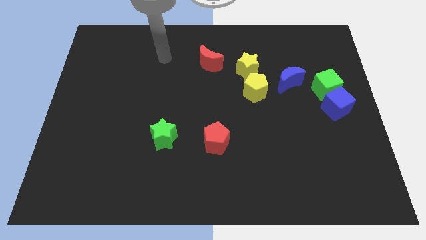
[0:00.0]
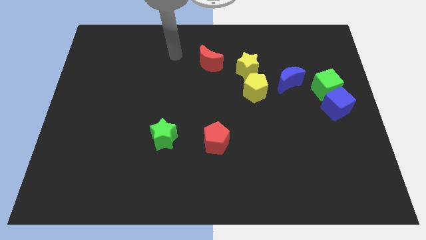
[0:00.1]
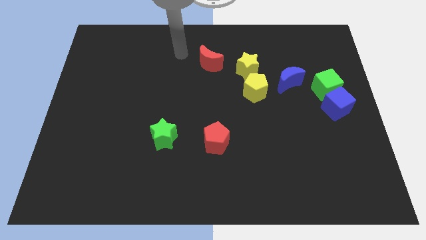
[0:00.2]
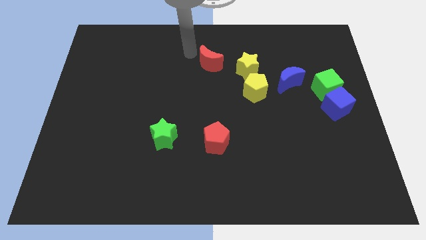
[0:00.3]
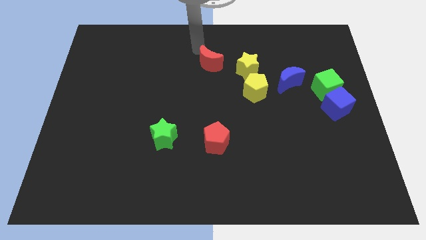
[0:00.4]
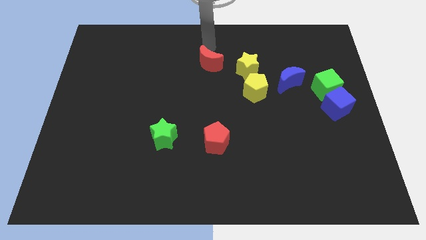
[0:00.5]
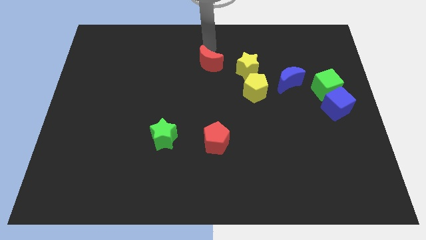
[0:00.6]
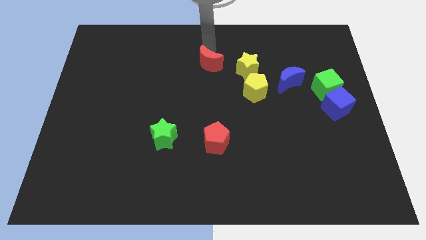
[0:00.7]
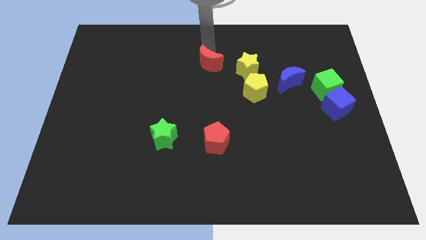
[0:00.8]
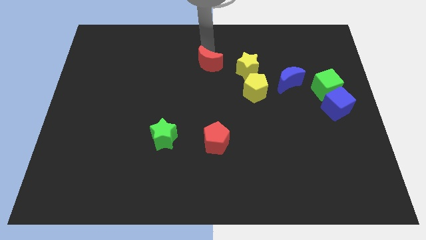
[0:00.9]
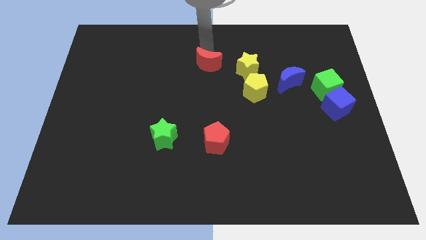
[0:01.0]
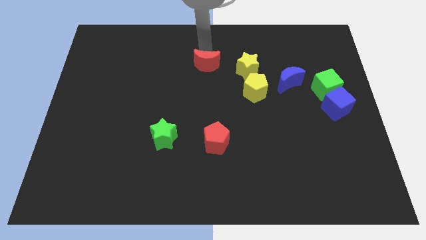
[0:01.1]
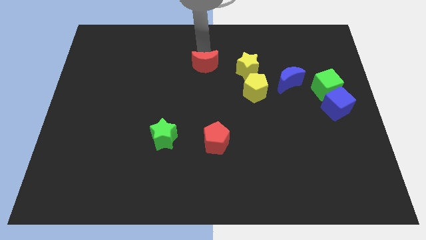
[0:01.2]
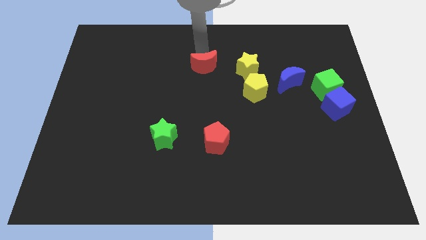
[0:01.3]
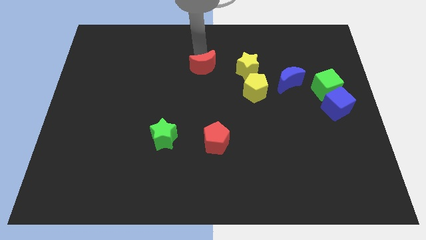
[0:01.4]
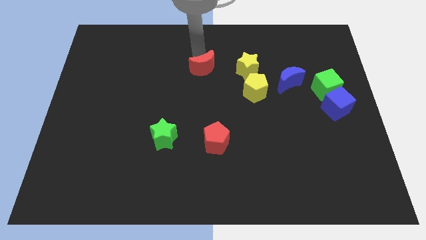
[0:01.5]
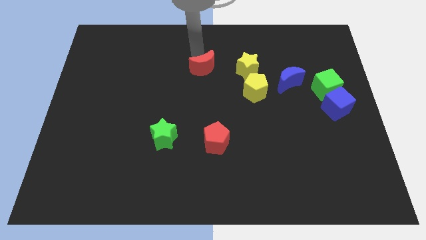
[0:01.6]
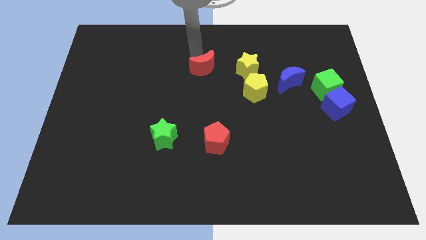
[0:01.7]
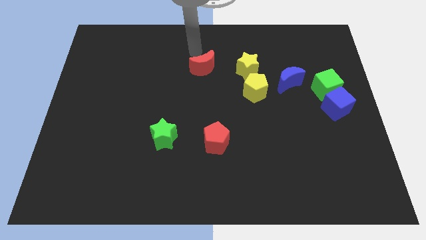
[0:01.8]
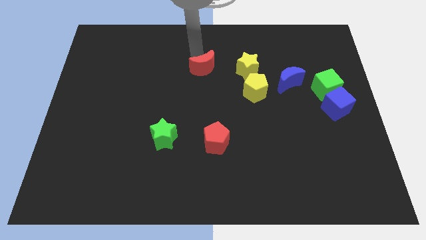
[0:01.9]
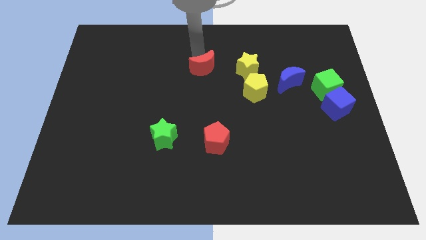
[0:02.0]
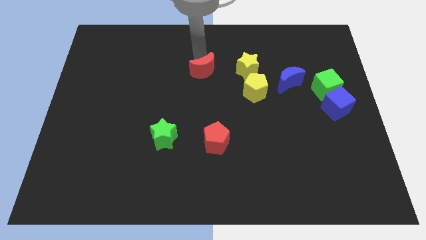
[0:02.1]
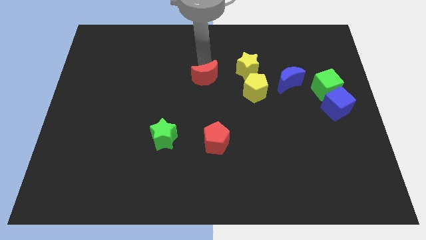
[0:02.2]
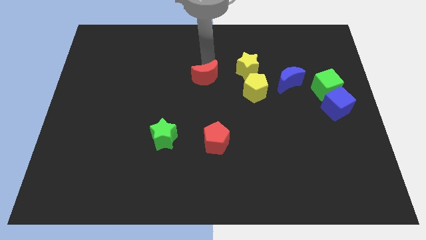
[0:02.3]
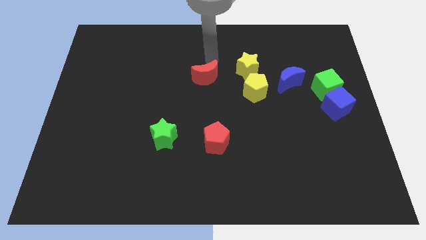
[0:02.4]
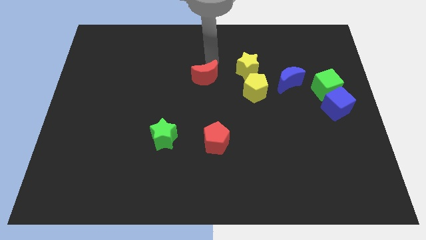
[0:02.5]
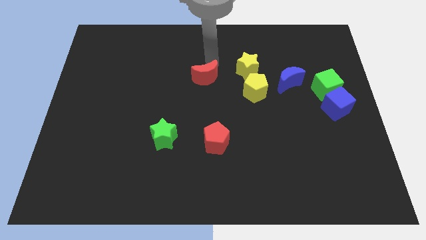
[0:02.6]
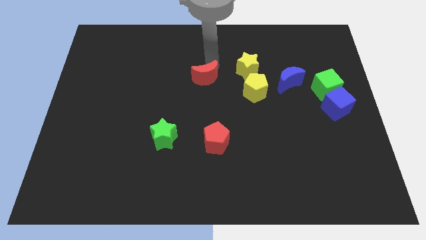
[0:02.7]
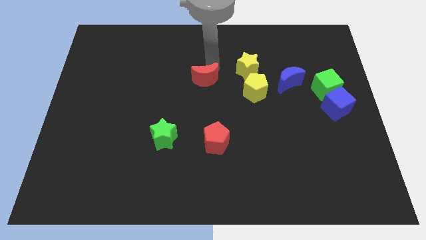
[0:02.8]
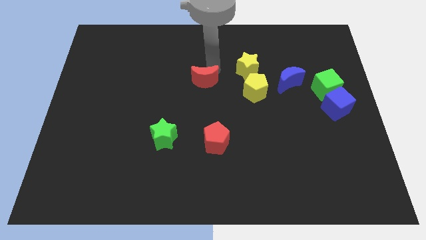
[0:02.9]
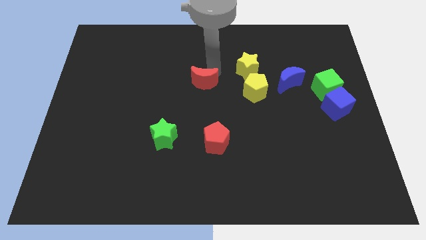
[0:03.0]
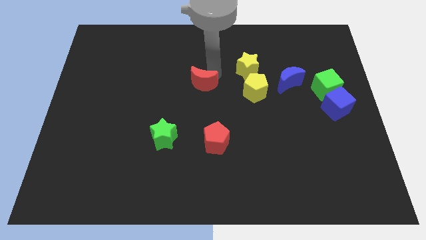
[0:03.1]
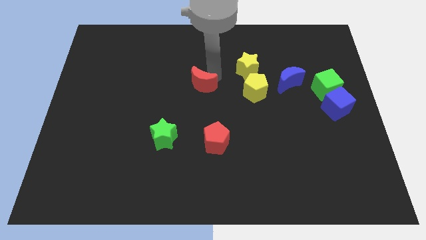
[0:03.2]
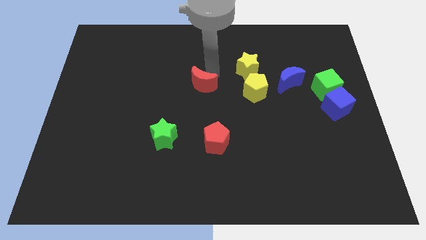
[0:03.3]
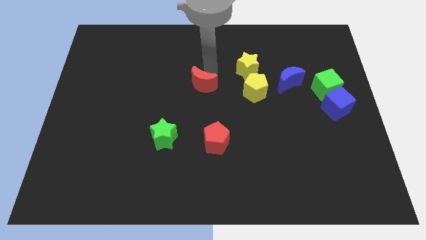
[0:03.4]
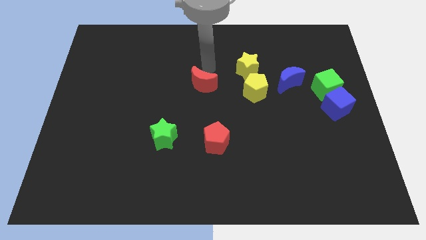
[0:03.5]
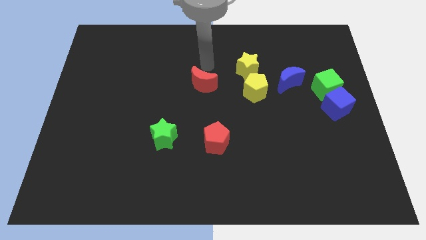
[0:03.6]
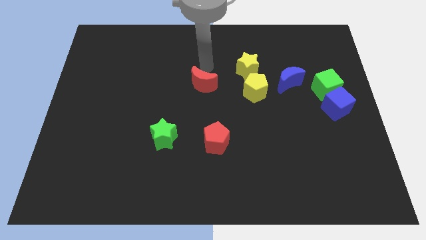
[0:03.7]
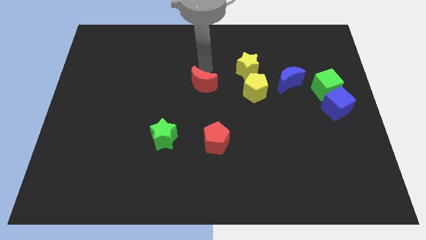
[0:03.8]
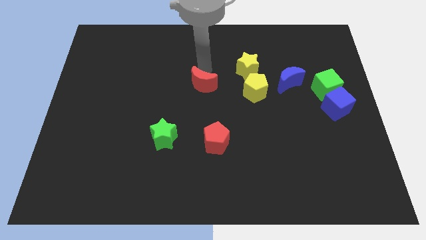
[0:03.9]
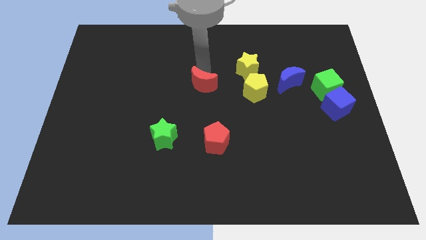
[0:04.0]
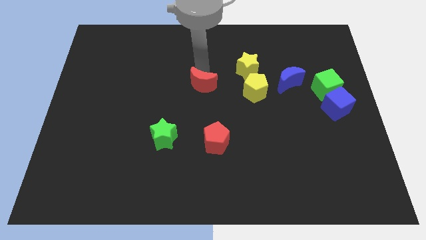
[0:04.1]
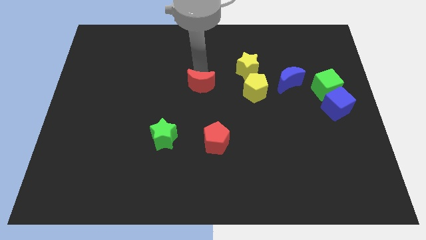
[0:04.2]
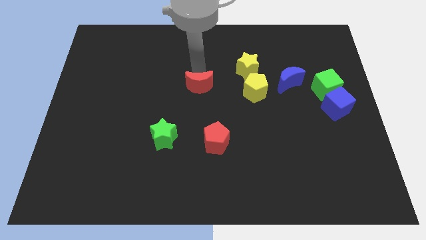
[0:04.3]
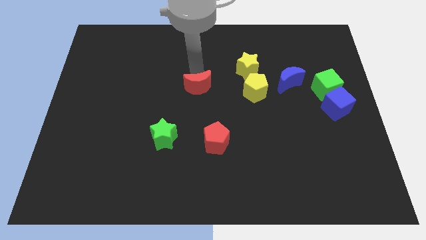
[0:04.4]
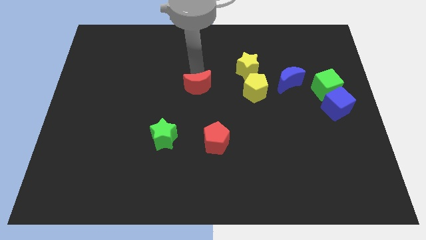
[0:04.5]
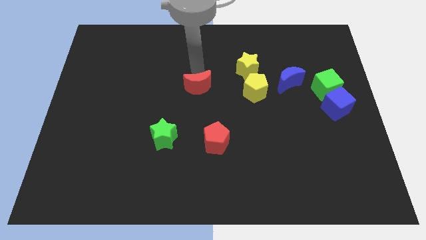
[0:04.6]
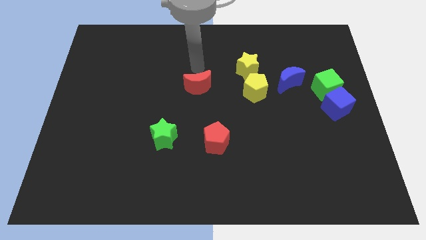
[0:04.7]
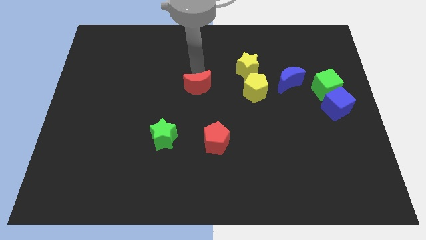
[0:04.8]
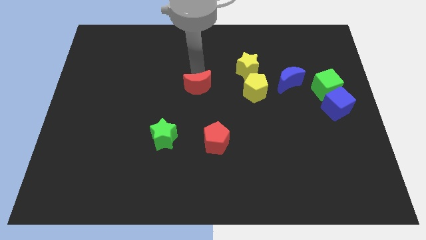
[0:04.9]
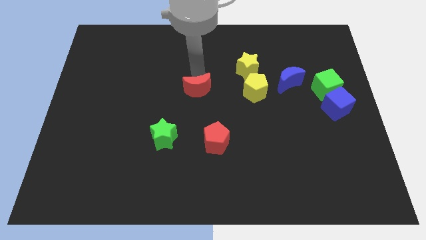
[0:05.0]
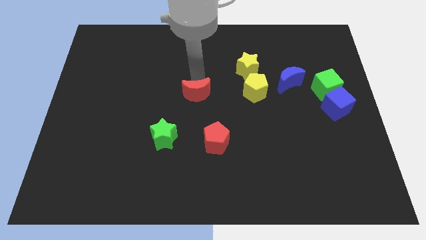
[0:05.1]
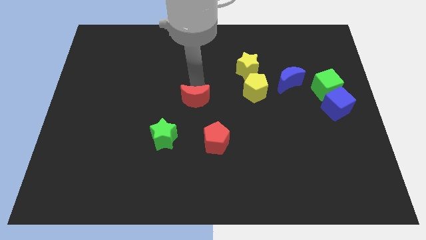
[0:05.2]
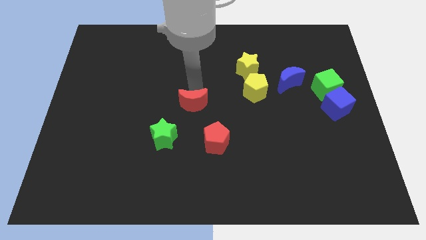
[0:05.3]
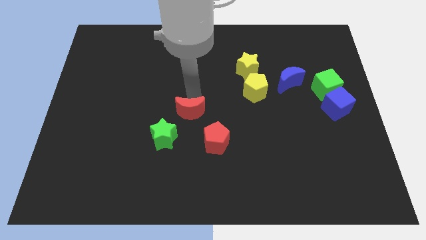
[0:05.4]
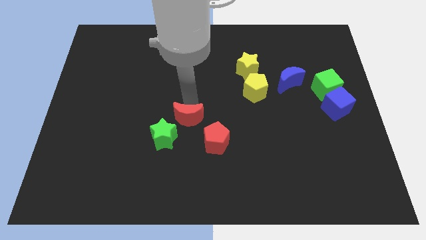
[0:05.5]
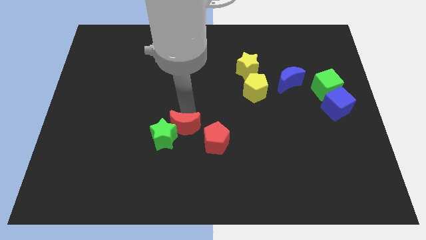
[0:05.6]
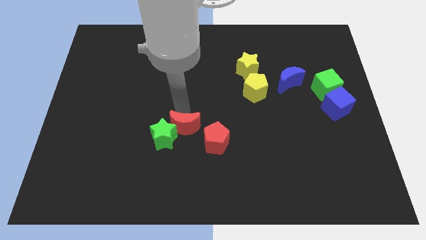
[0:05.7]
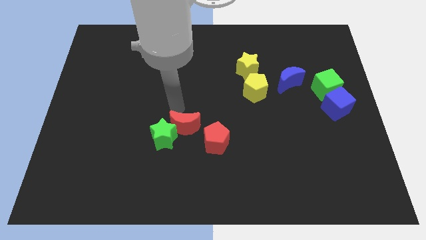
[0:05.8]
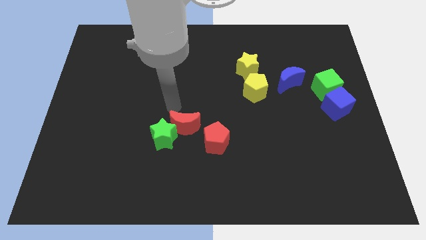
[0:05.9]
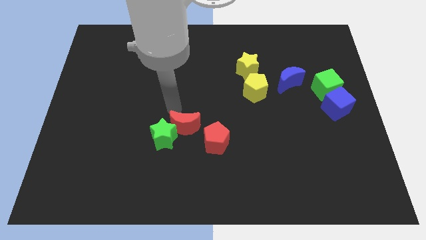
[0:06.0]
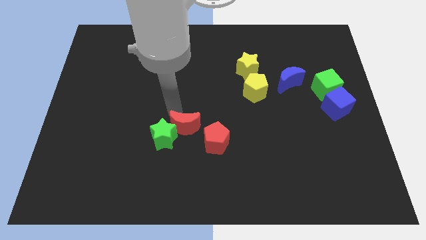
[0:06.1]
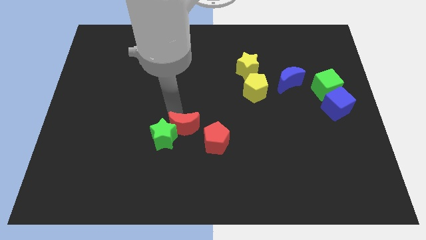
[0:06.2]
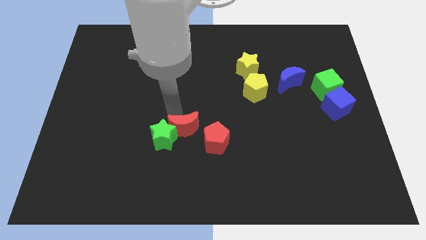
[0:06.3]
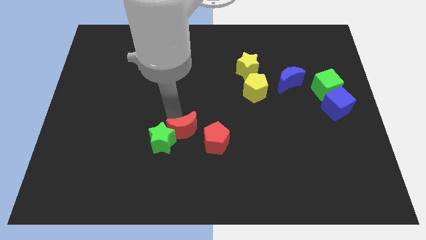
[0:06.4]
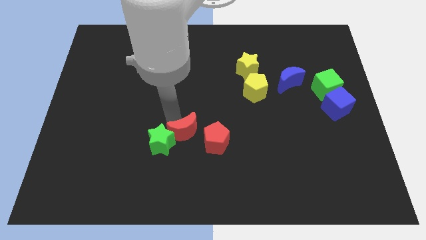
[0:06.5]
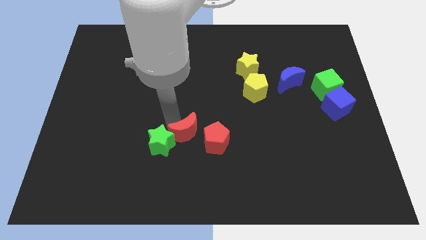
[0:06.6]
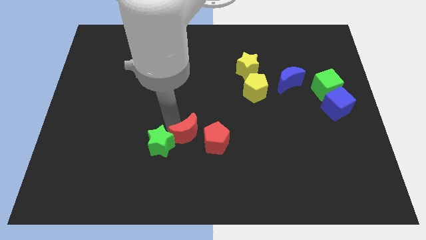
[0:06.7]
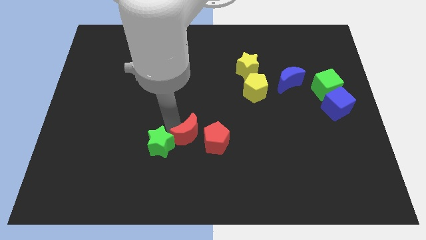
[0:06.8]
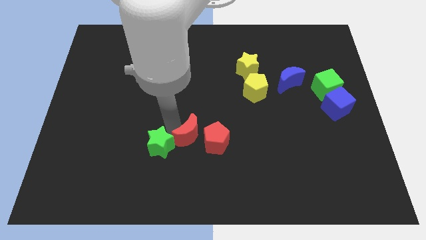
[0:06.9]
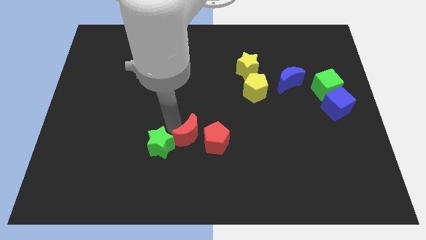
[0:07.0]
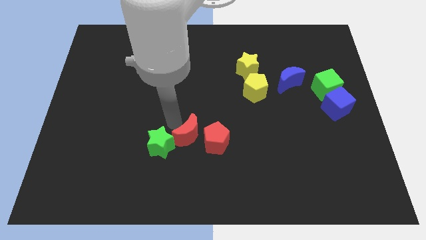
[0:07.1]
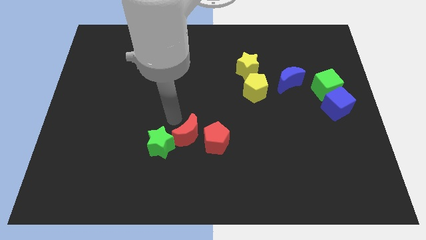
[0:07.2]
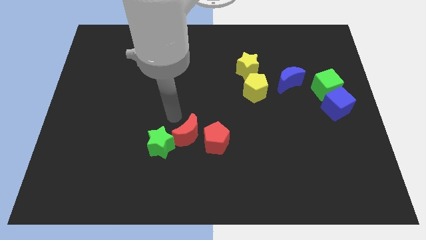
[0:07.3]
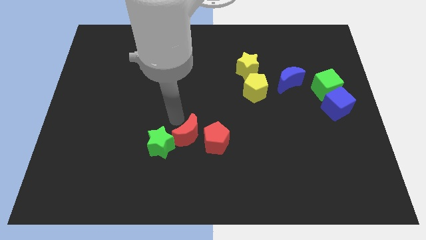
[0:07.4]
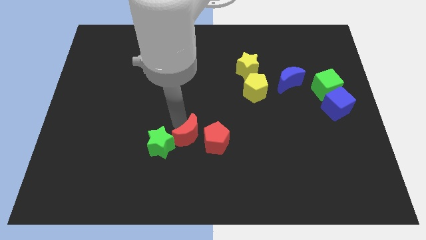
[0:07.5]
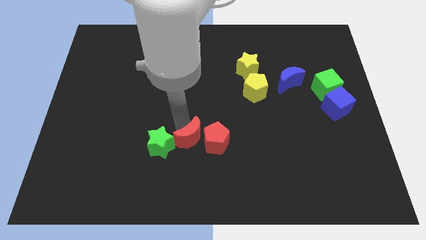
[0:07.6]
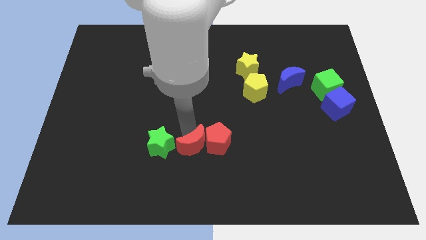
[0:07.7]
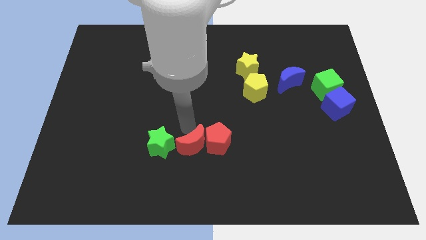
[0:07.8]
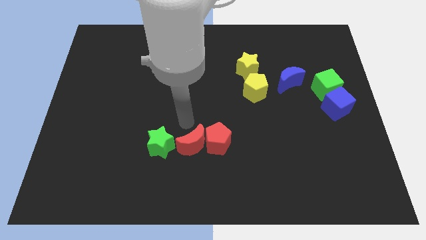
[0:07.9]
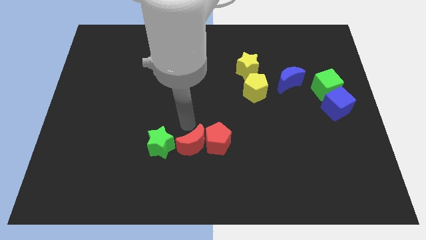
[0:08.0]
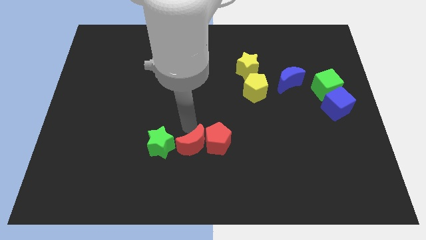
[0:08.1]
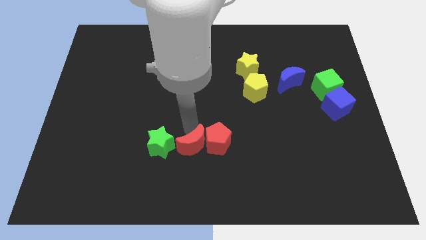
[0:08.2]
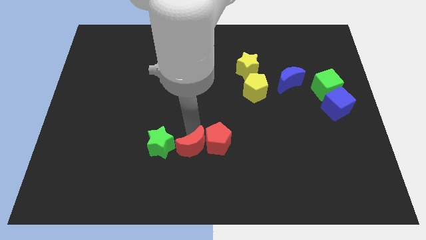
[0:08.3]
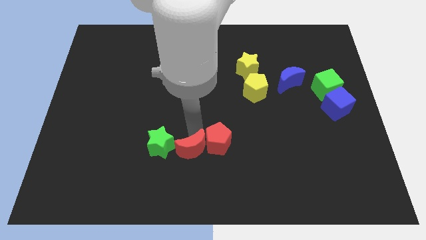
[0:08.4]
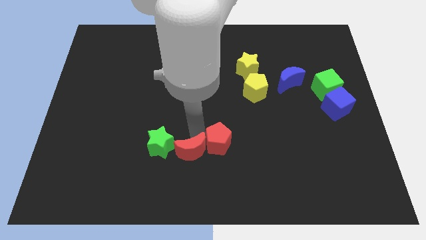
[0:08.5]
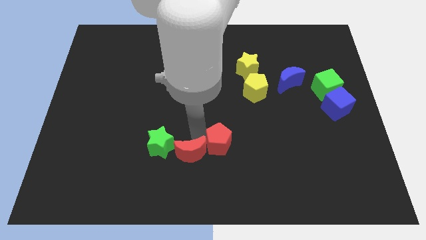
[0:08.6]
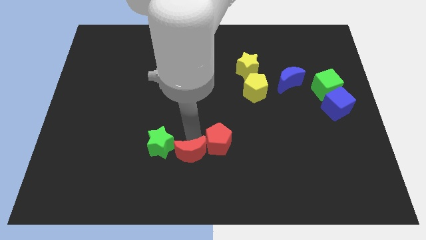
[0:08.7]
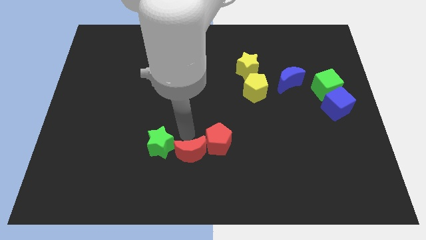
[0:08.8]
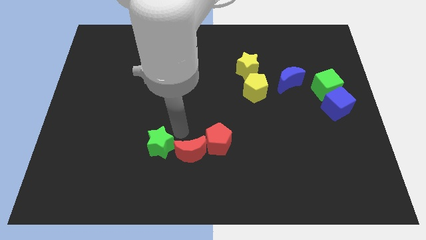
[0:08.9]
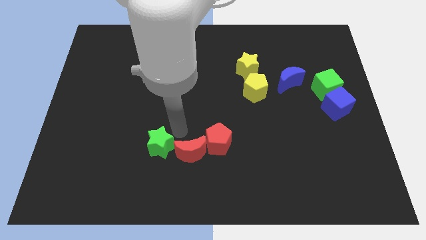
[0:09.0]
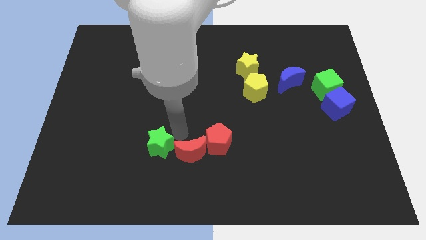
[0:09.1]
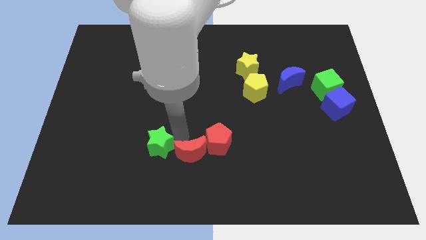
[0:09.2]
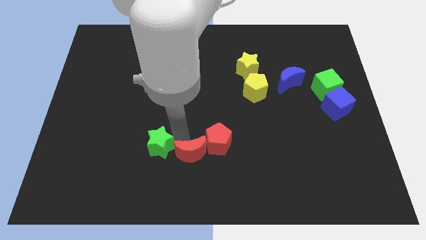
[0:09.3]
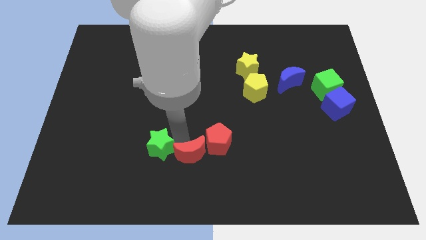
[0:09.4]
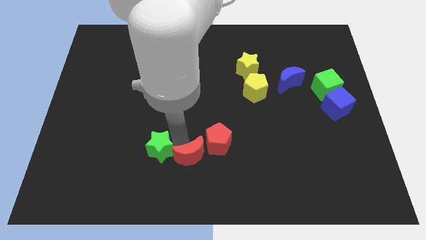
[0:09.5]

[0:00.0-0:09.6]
put the red moon to the bottom
